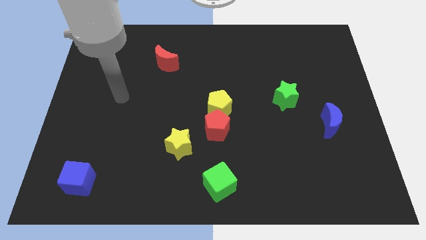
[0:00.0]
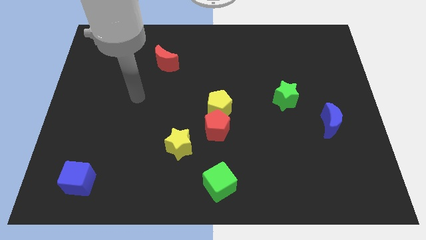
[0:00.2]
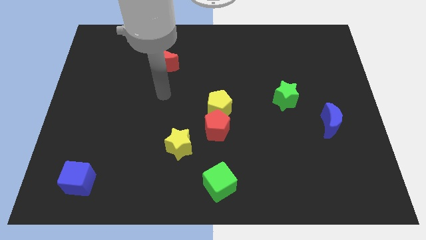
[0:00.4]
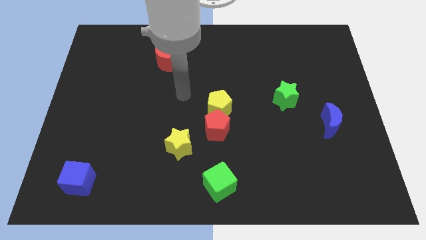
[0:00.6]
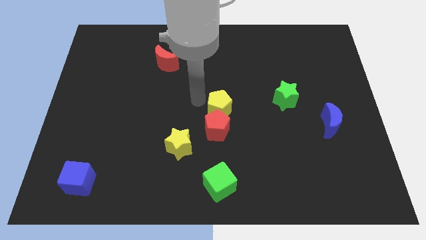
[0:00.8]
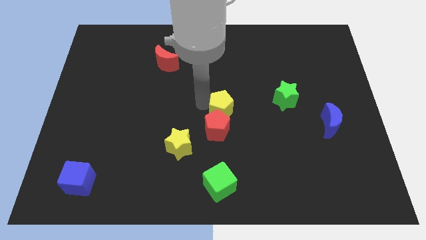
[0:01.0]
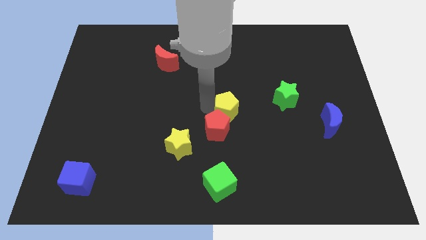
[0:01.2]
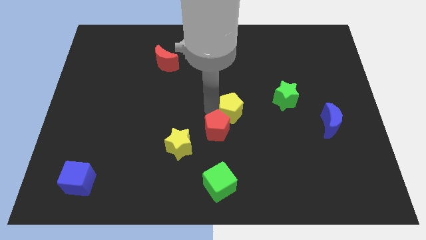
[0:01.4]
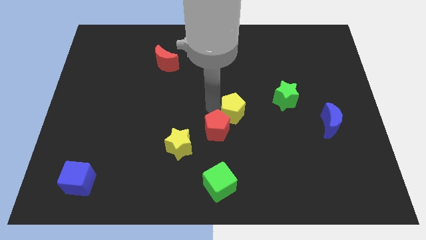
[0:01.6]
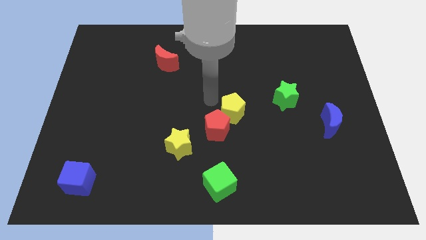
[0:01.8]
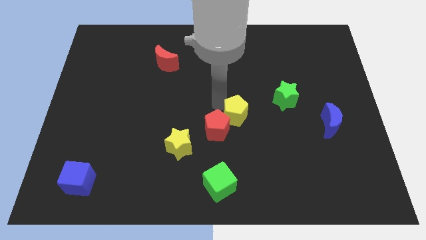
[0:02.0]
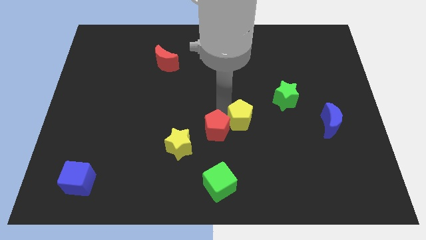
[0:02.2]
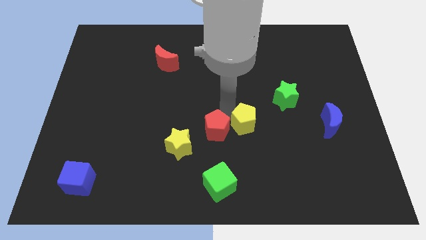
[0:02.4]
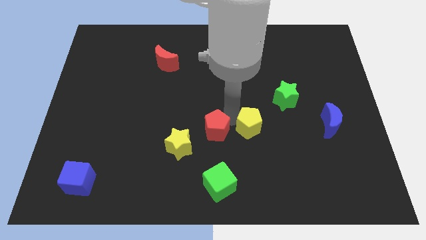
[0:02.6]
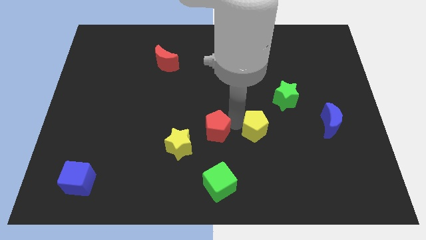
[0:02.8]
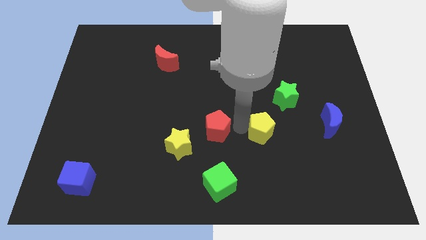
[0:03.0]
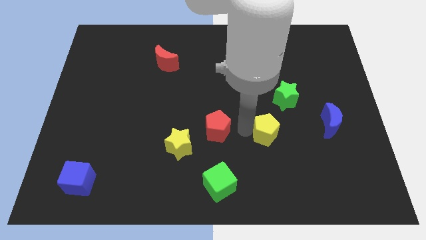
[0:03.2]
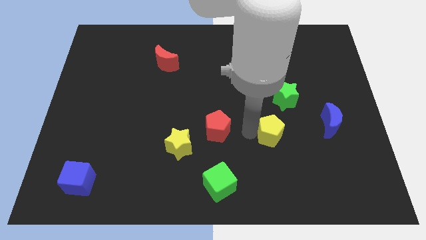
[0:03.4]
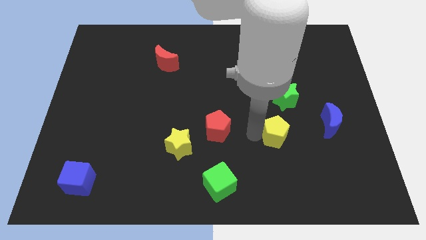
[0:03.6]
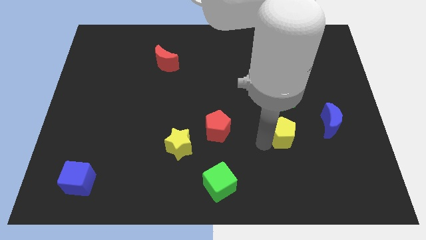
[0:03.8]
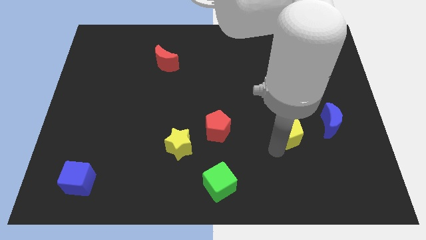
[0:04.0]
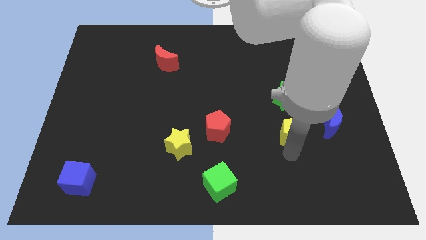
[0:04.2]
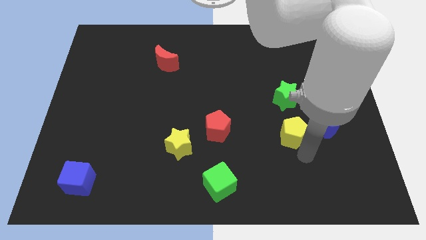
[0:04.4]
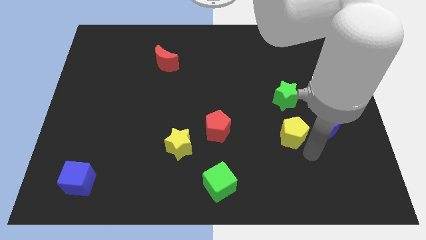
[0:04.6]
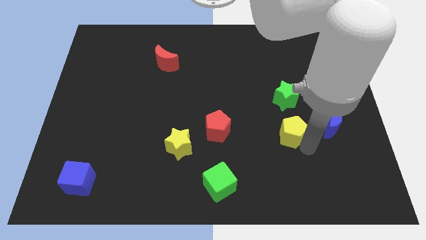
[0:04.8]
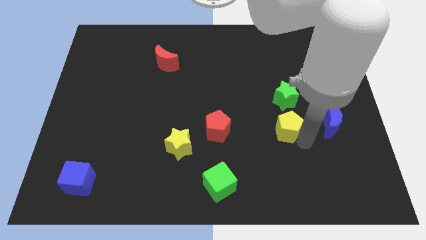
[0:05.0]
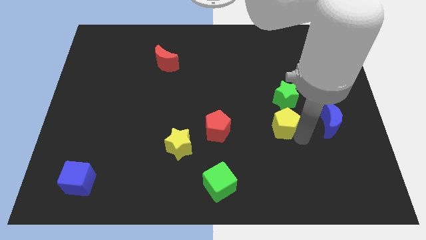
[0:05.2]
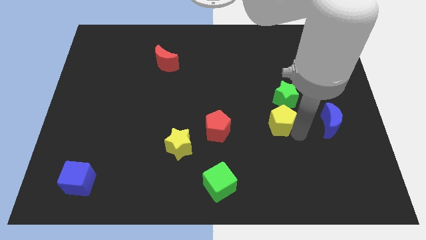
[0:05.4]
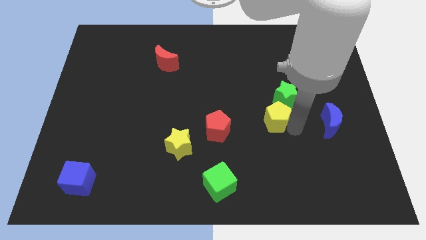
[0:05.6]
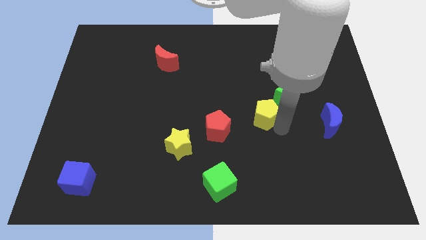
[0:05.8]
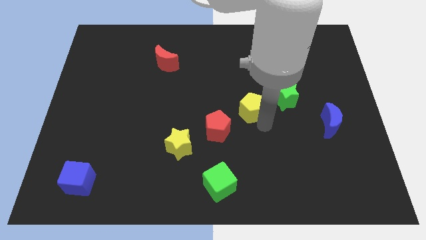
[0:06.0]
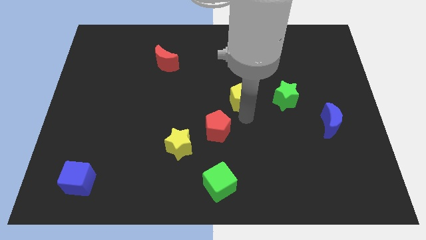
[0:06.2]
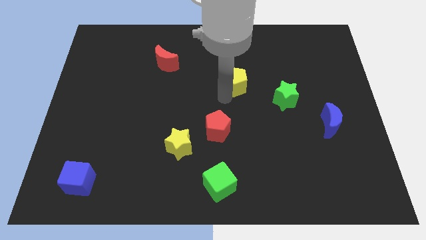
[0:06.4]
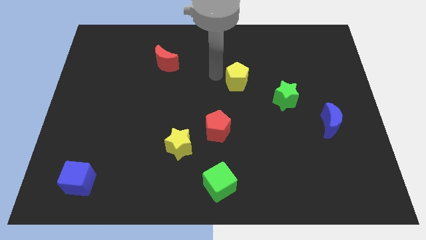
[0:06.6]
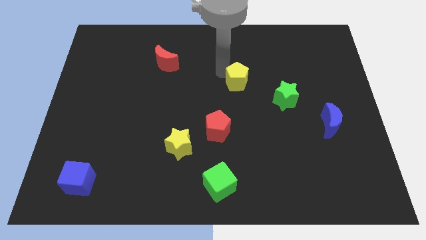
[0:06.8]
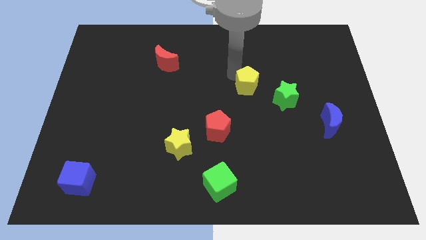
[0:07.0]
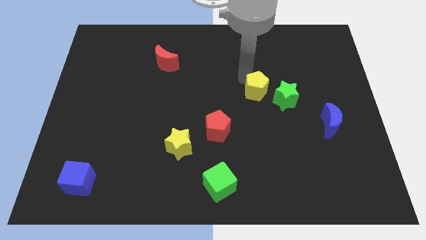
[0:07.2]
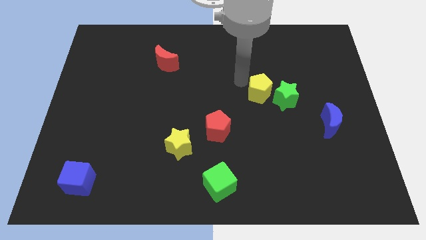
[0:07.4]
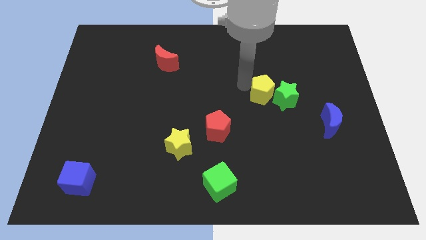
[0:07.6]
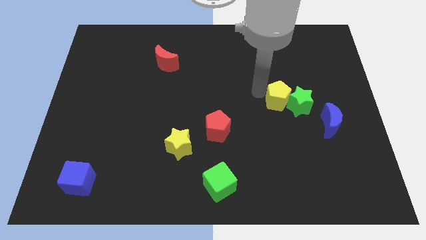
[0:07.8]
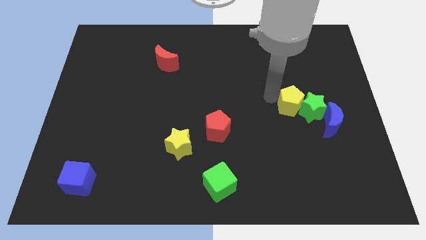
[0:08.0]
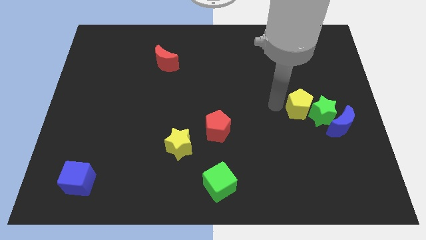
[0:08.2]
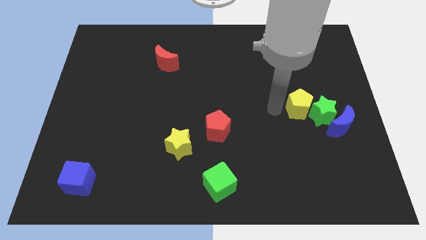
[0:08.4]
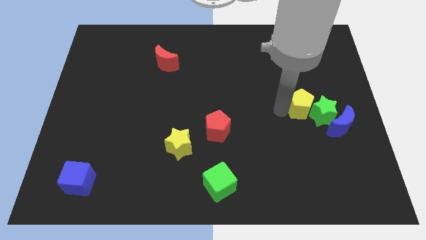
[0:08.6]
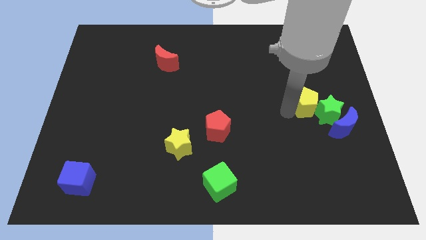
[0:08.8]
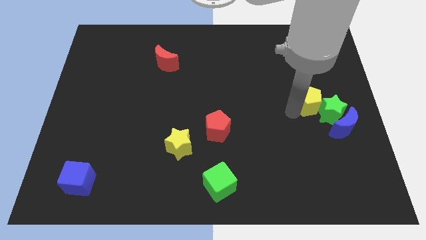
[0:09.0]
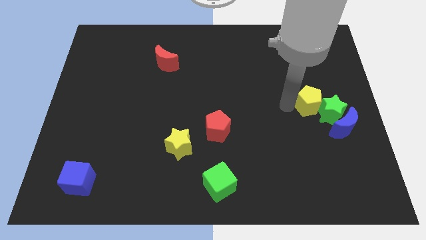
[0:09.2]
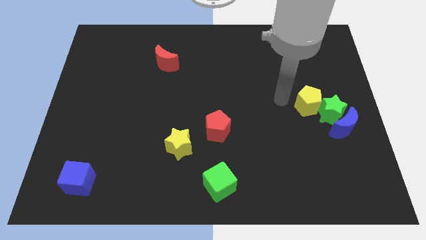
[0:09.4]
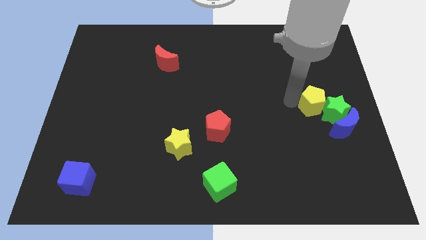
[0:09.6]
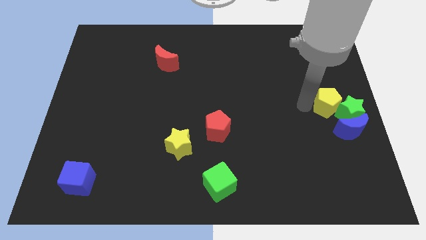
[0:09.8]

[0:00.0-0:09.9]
put the yellow pentagon to the center right

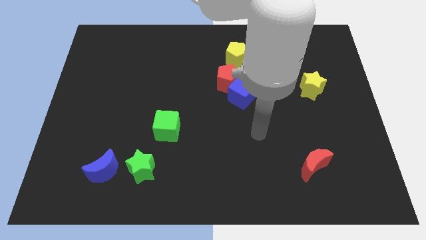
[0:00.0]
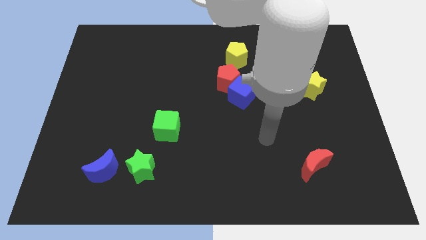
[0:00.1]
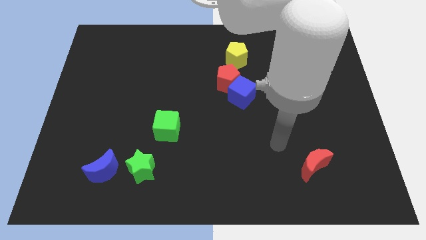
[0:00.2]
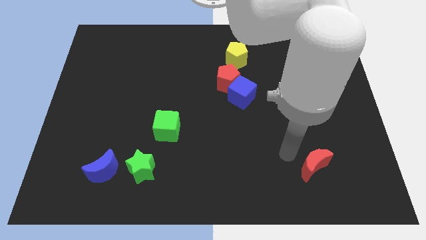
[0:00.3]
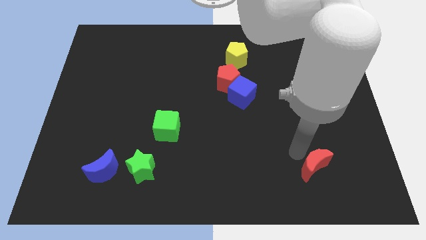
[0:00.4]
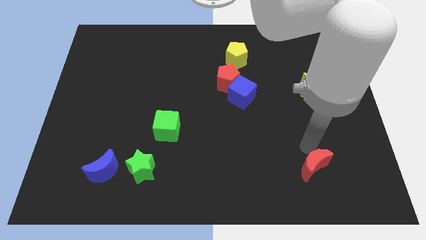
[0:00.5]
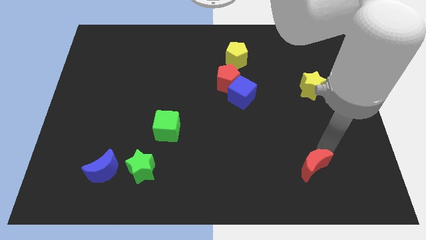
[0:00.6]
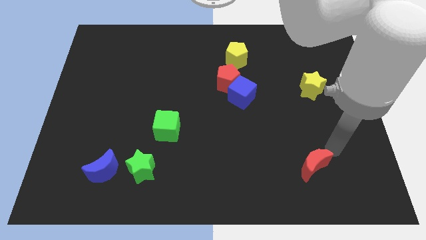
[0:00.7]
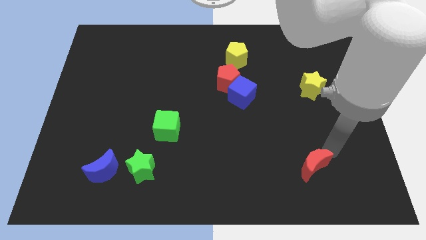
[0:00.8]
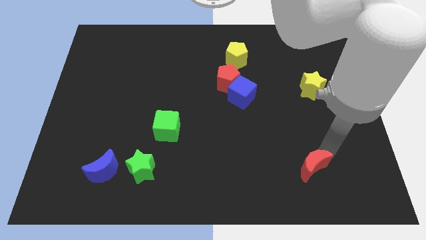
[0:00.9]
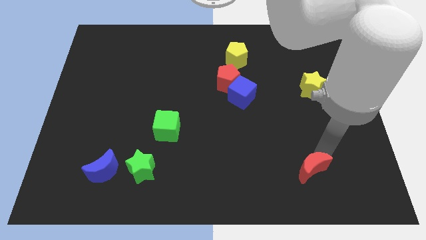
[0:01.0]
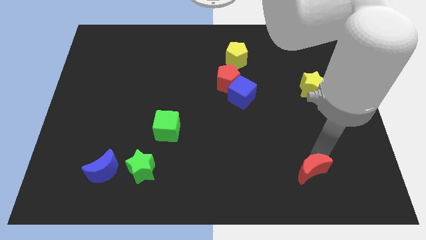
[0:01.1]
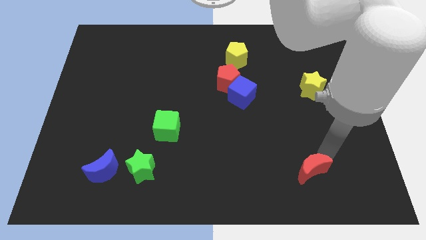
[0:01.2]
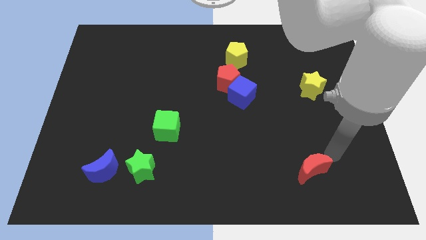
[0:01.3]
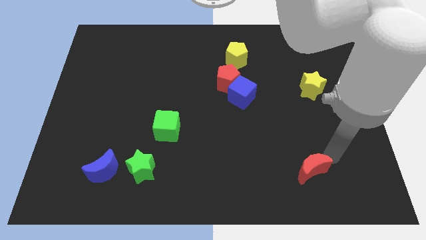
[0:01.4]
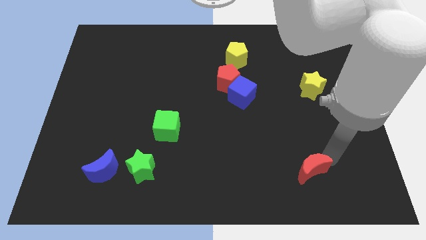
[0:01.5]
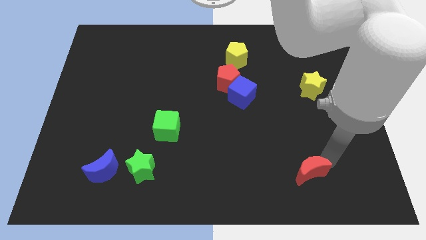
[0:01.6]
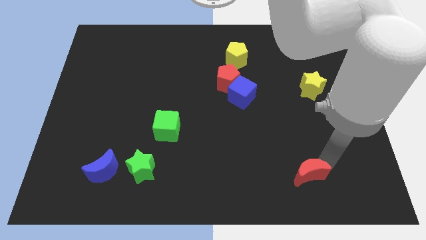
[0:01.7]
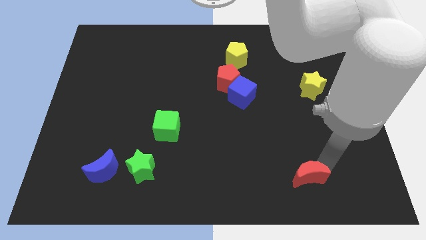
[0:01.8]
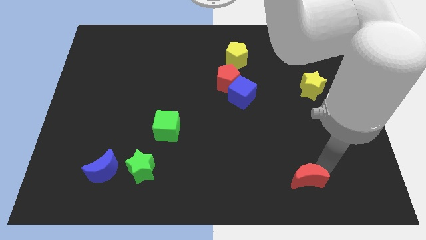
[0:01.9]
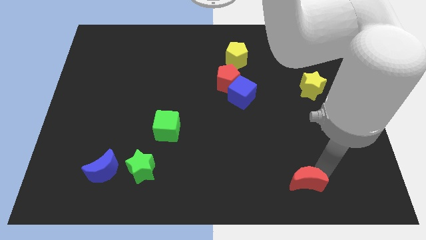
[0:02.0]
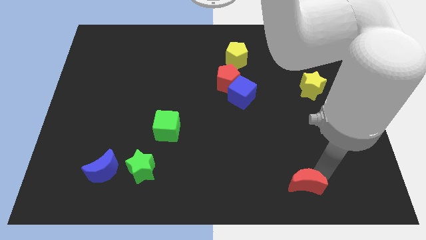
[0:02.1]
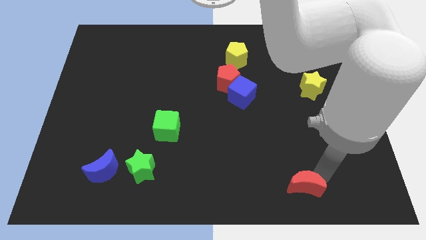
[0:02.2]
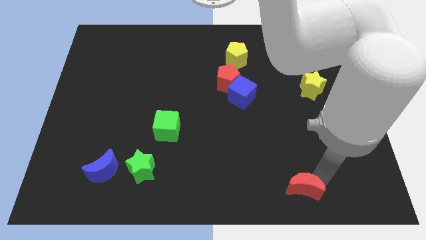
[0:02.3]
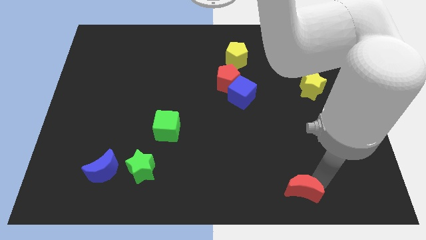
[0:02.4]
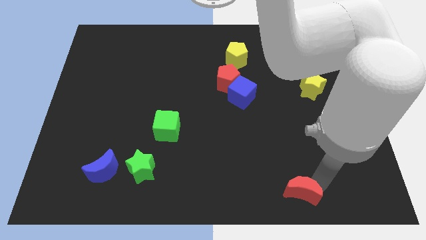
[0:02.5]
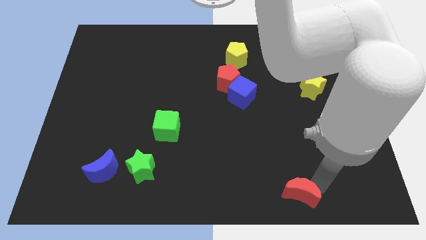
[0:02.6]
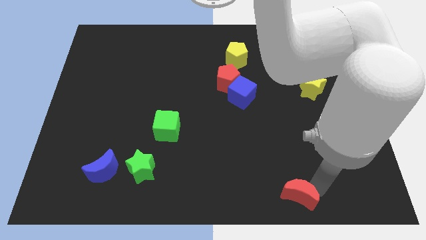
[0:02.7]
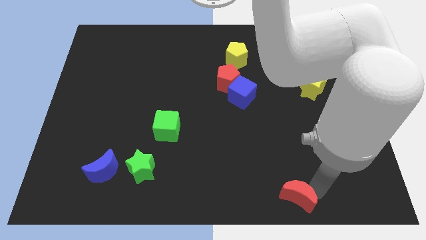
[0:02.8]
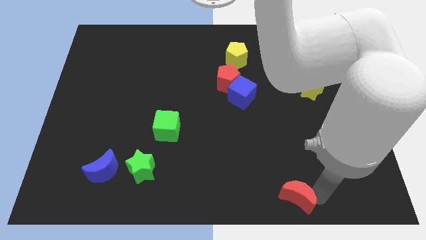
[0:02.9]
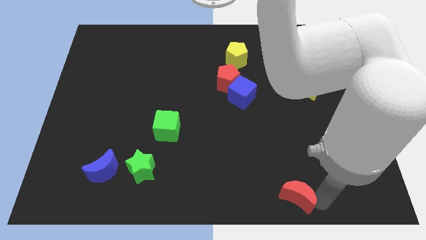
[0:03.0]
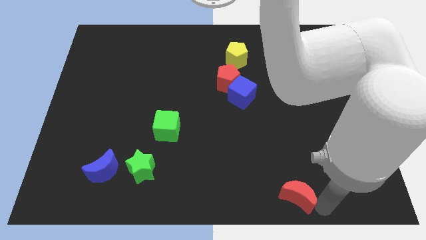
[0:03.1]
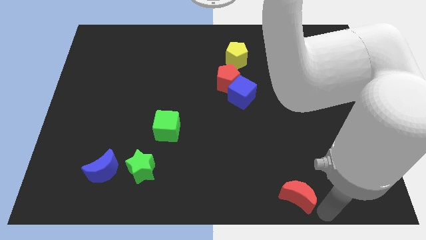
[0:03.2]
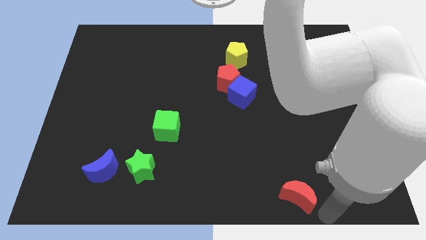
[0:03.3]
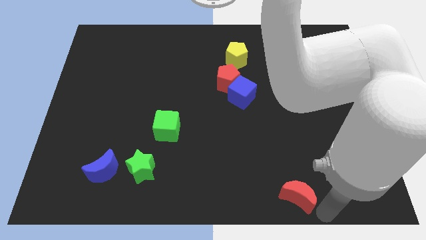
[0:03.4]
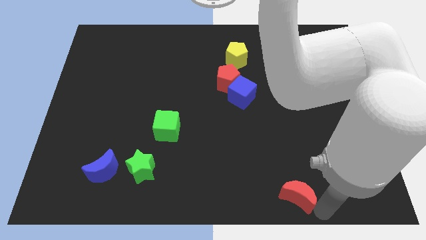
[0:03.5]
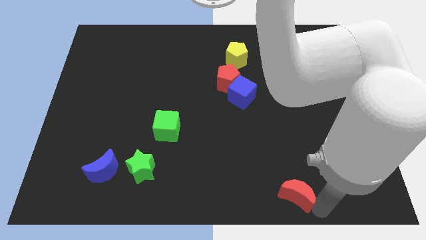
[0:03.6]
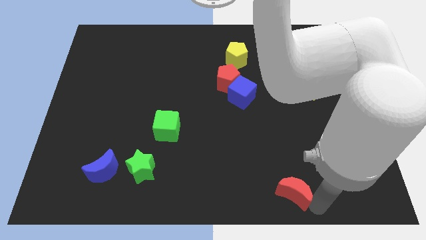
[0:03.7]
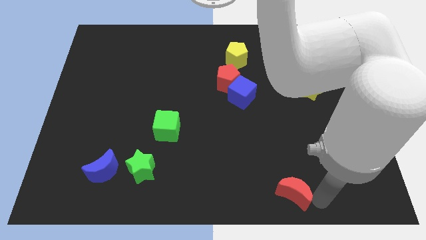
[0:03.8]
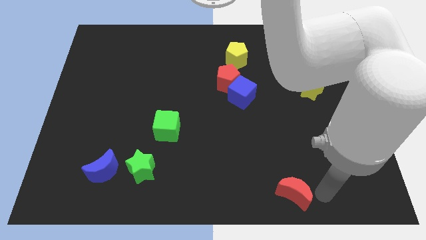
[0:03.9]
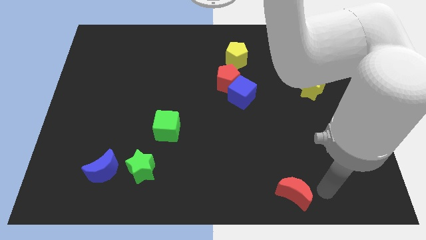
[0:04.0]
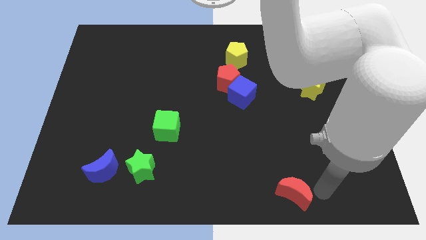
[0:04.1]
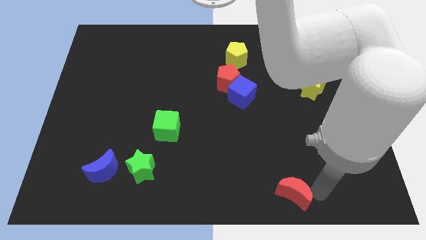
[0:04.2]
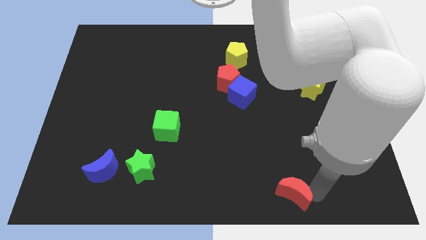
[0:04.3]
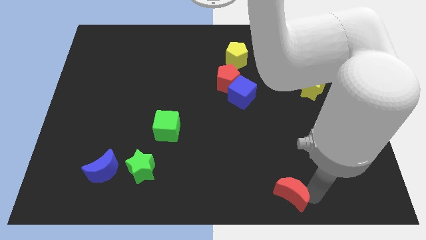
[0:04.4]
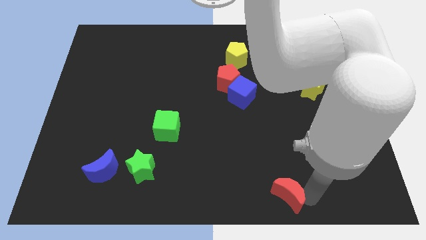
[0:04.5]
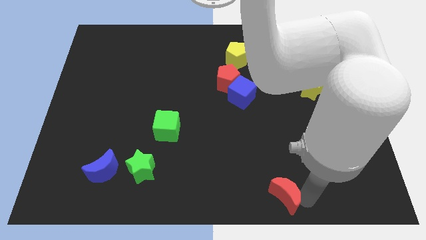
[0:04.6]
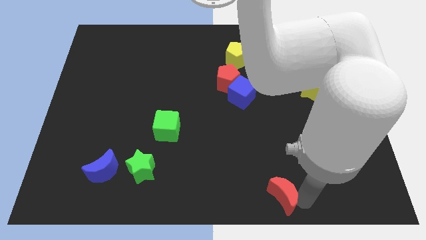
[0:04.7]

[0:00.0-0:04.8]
slide the red moon to the bottom side
